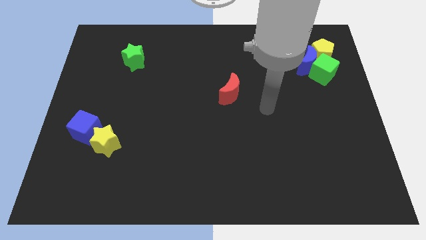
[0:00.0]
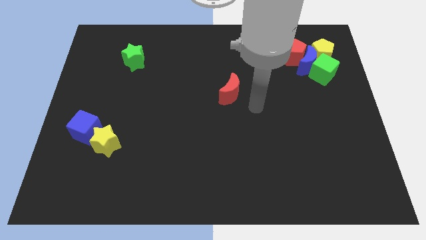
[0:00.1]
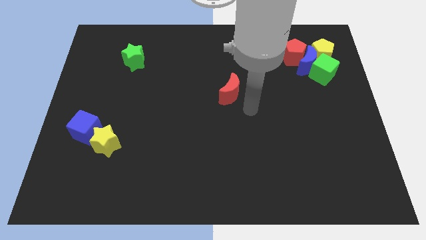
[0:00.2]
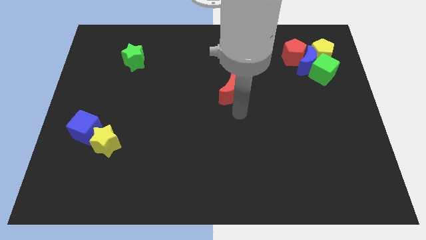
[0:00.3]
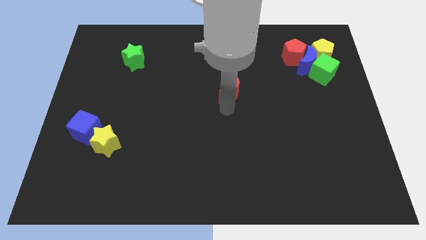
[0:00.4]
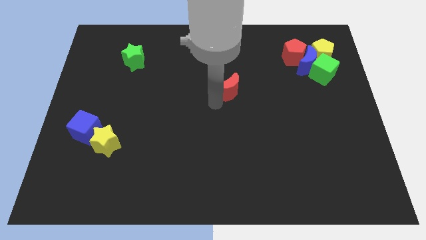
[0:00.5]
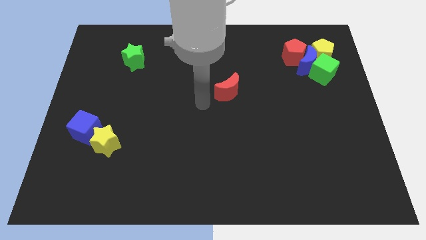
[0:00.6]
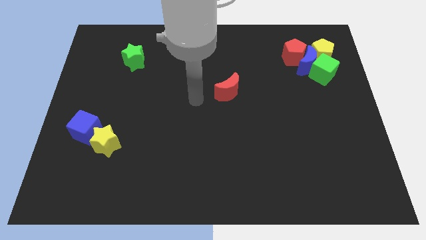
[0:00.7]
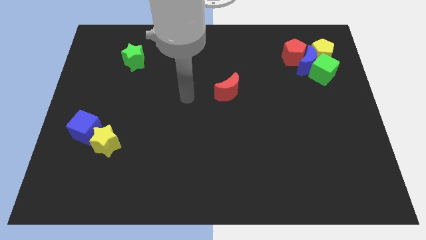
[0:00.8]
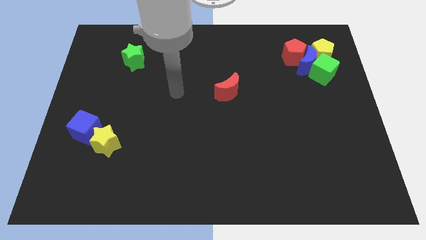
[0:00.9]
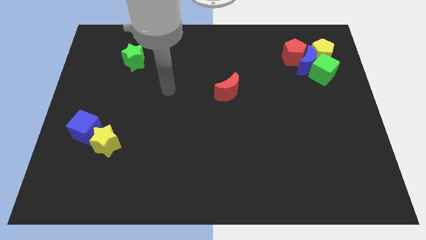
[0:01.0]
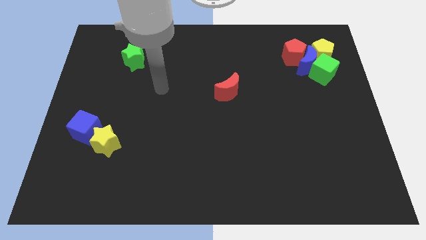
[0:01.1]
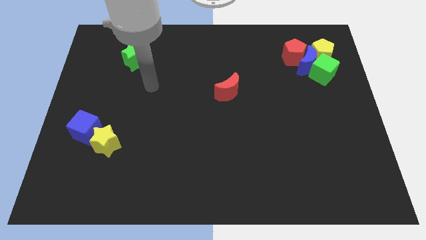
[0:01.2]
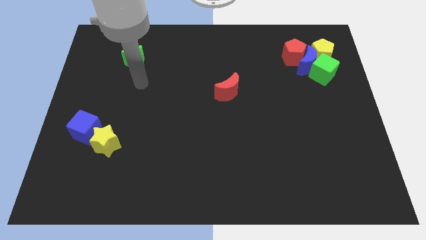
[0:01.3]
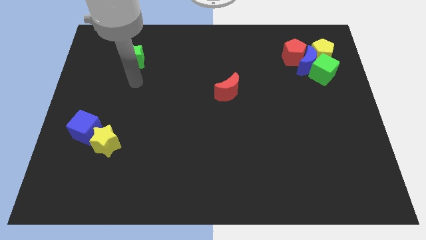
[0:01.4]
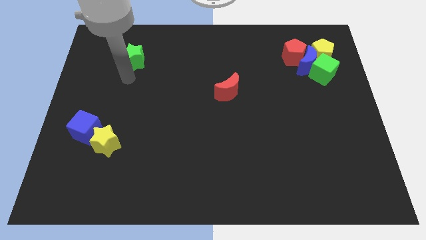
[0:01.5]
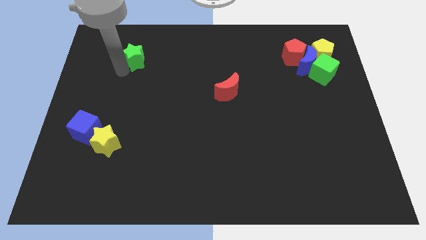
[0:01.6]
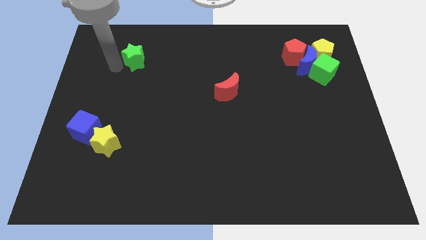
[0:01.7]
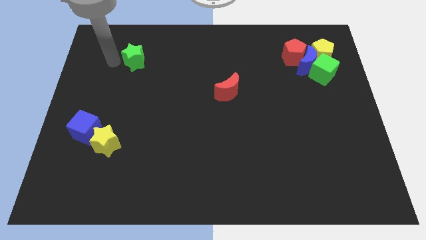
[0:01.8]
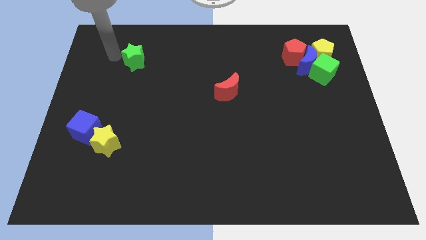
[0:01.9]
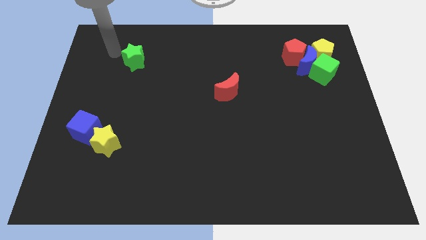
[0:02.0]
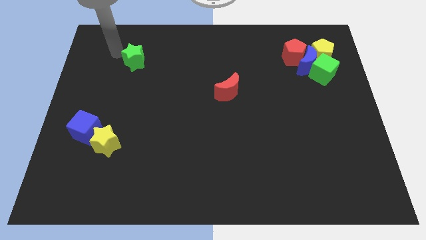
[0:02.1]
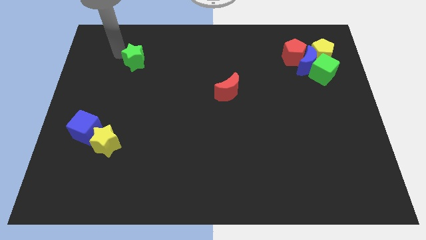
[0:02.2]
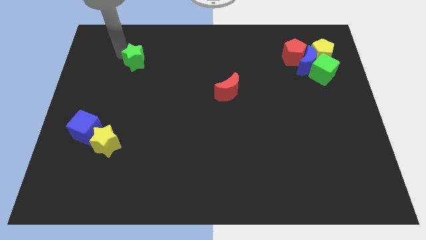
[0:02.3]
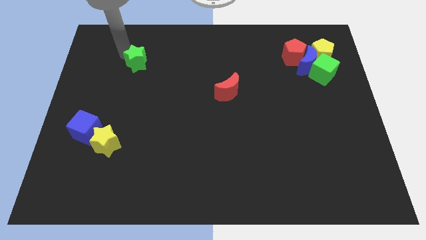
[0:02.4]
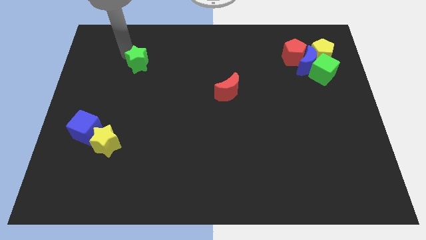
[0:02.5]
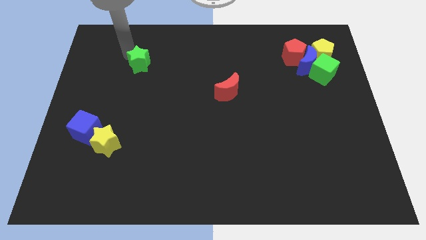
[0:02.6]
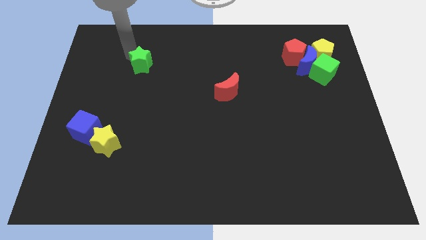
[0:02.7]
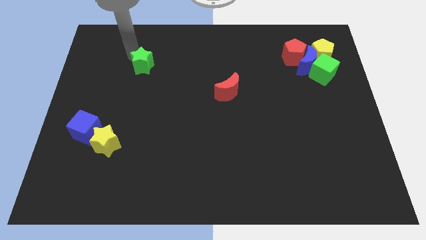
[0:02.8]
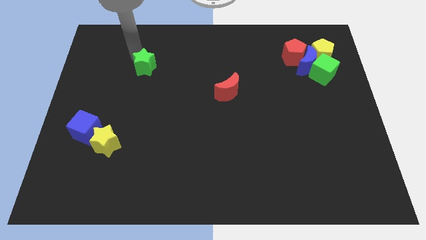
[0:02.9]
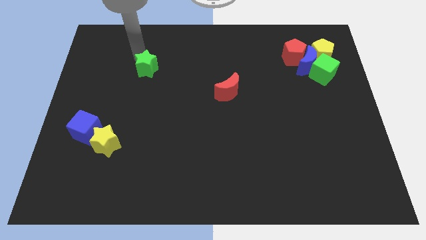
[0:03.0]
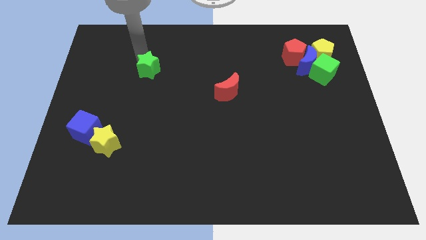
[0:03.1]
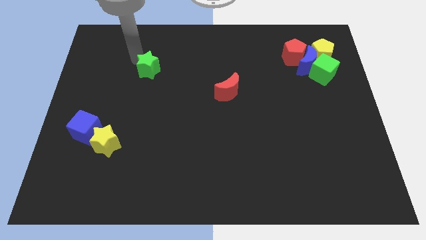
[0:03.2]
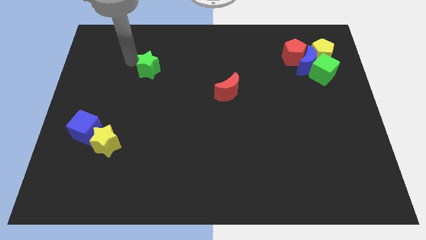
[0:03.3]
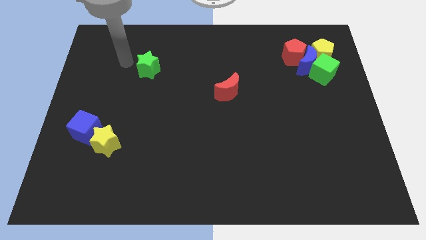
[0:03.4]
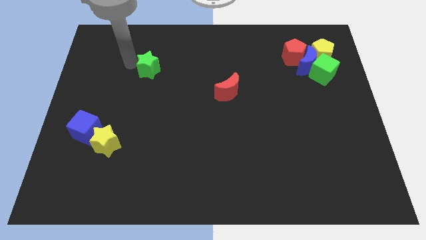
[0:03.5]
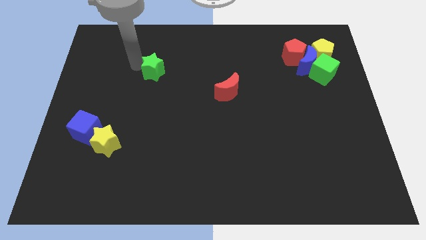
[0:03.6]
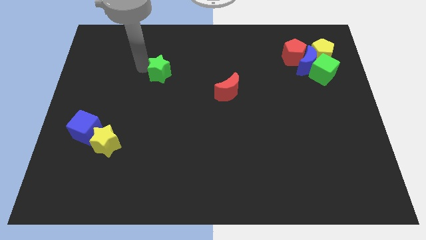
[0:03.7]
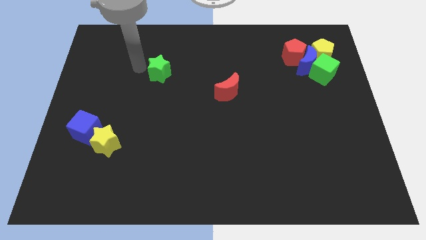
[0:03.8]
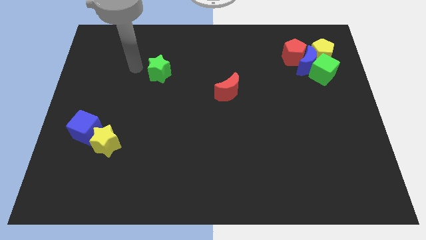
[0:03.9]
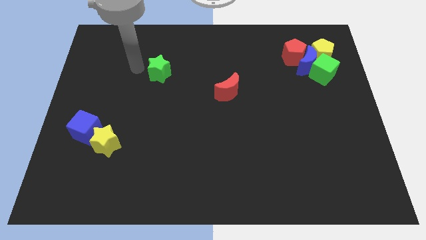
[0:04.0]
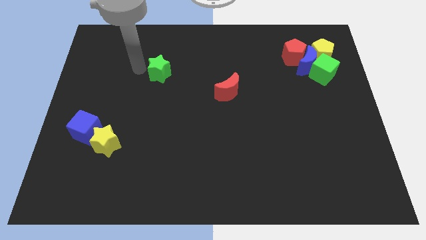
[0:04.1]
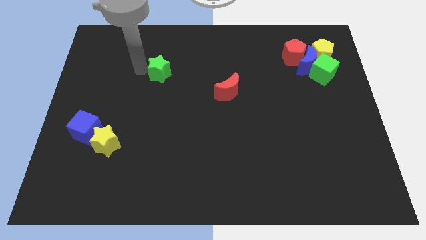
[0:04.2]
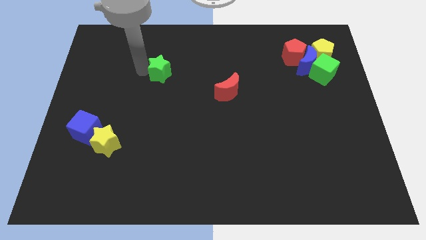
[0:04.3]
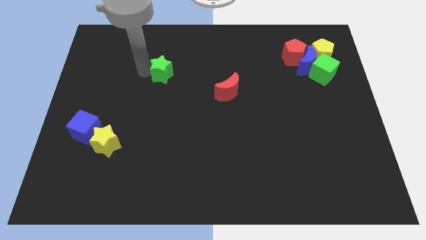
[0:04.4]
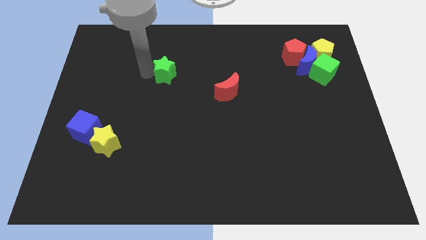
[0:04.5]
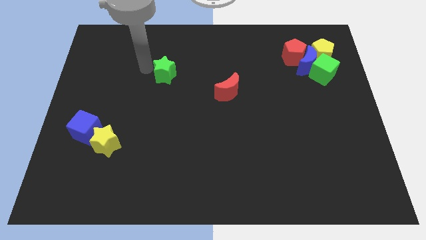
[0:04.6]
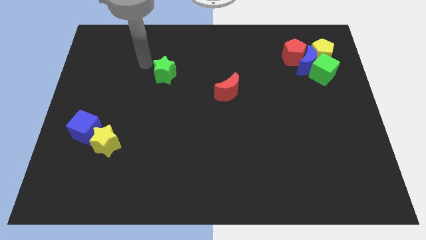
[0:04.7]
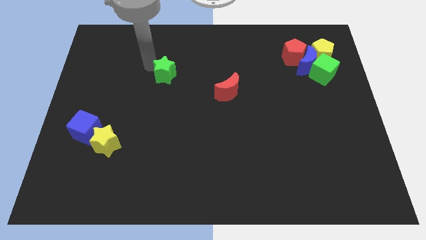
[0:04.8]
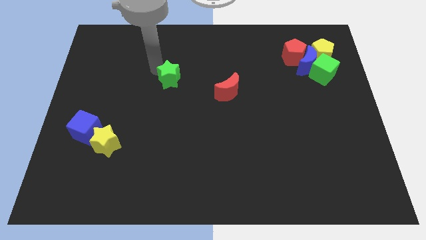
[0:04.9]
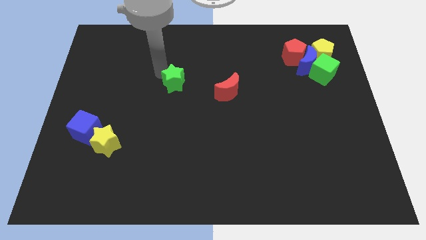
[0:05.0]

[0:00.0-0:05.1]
push the green star to the middle of the board
